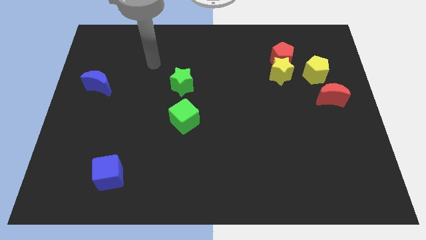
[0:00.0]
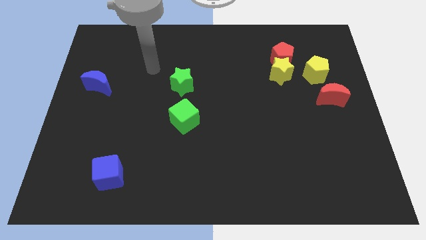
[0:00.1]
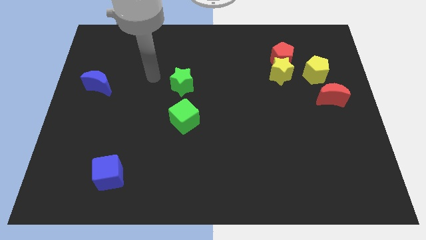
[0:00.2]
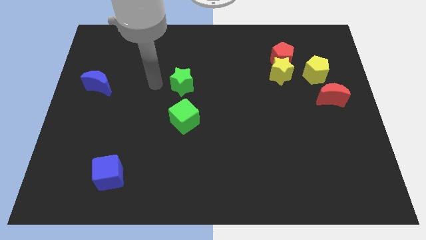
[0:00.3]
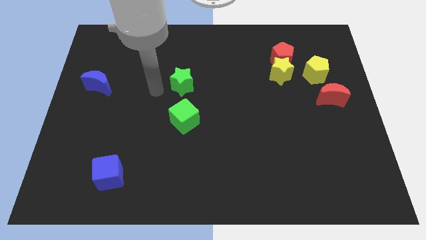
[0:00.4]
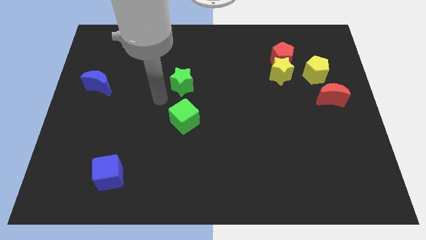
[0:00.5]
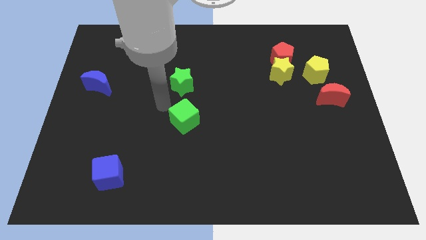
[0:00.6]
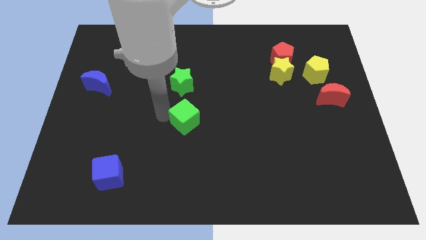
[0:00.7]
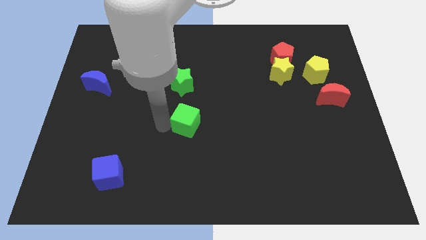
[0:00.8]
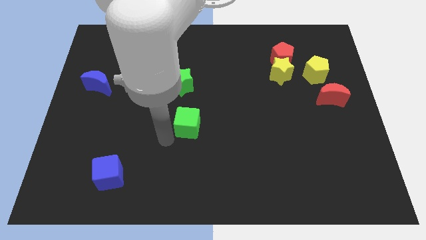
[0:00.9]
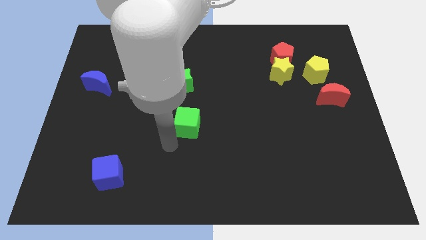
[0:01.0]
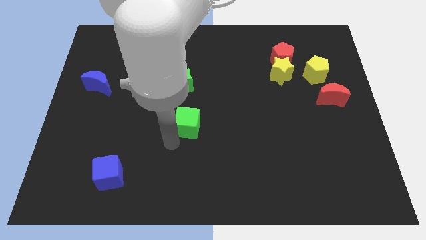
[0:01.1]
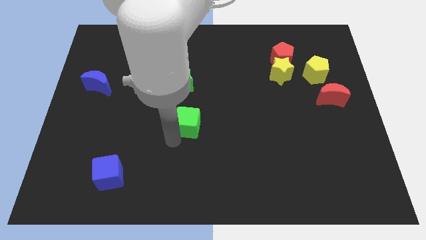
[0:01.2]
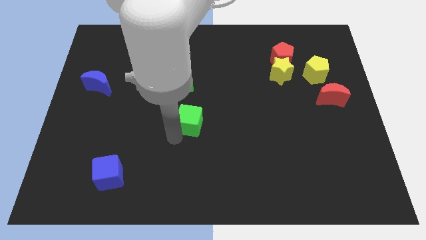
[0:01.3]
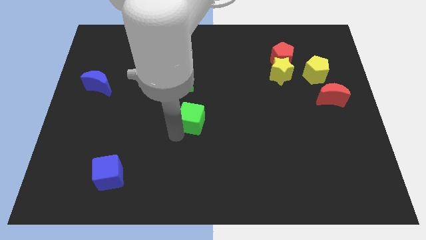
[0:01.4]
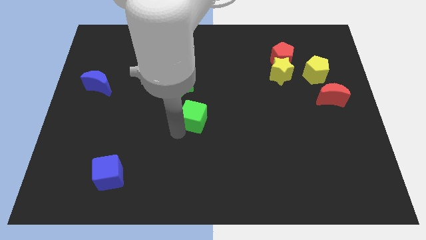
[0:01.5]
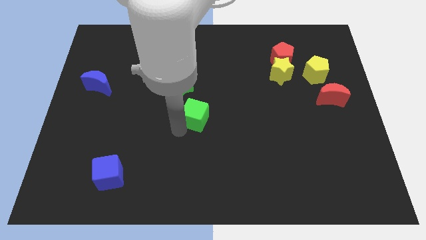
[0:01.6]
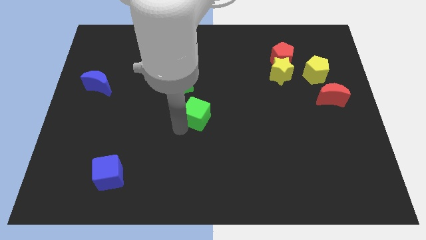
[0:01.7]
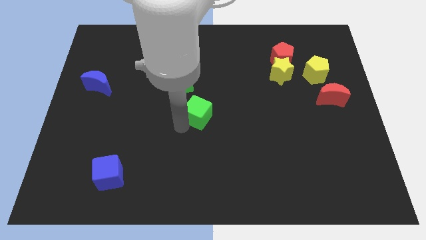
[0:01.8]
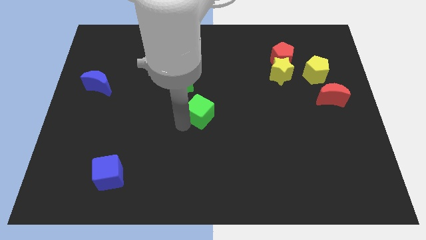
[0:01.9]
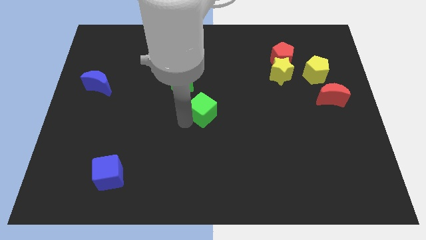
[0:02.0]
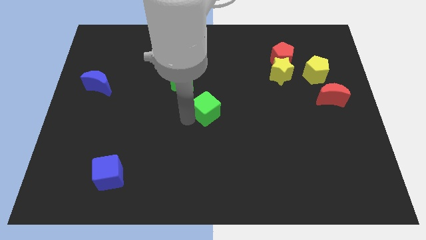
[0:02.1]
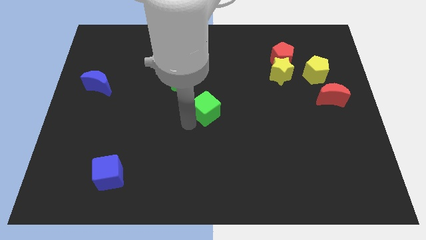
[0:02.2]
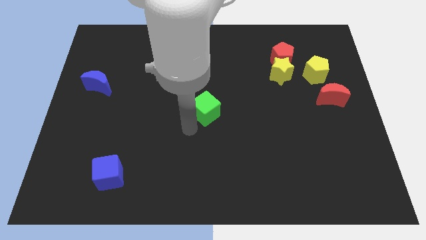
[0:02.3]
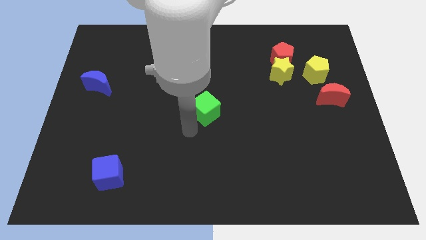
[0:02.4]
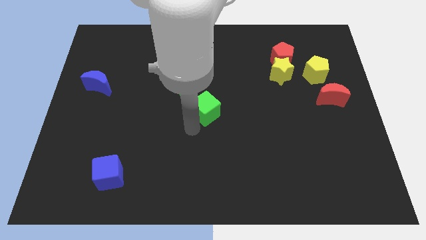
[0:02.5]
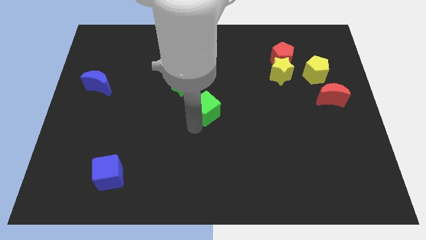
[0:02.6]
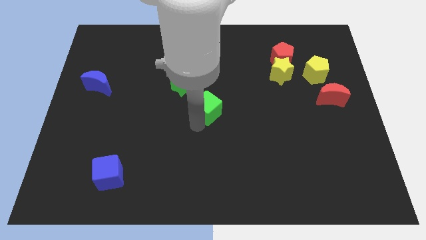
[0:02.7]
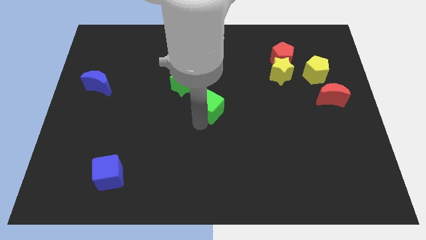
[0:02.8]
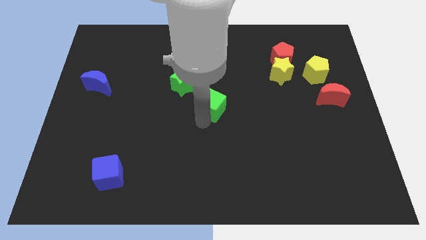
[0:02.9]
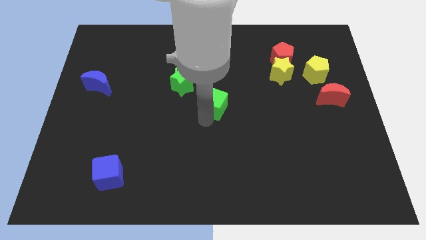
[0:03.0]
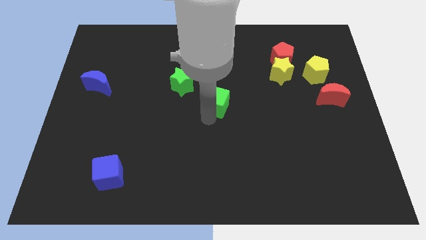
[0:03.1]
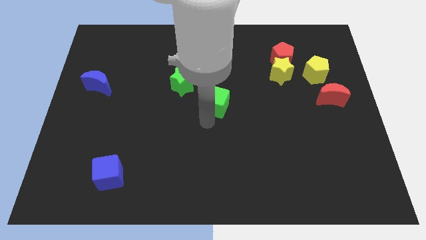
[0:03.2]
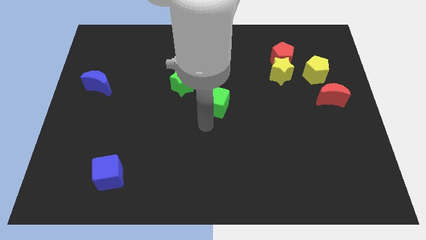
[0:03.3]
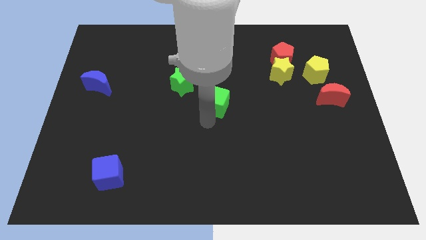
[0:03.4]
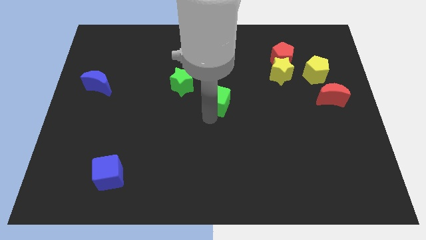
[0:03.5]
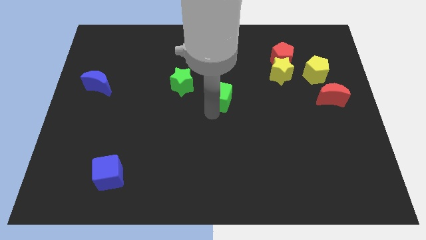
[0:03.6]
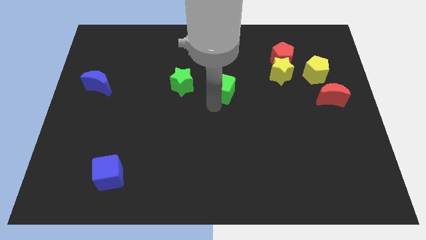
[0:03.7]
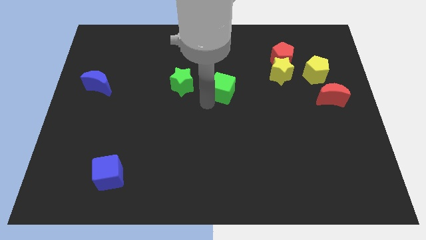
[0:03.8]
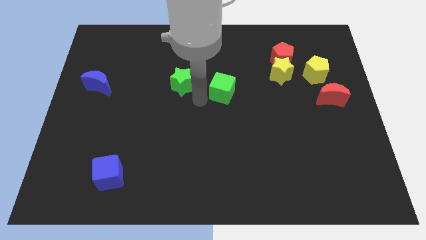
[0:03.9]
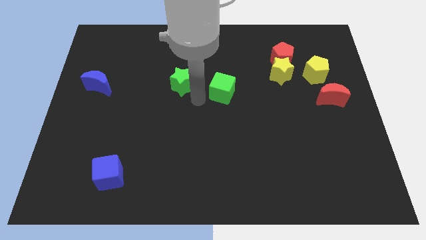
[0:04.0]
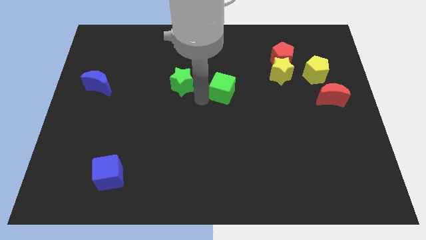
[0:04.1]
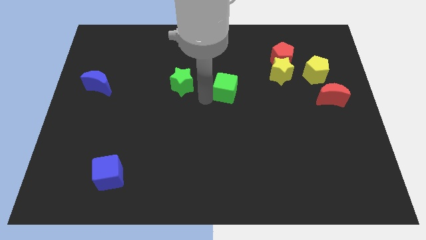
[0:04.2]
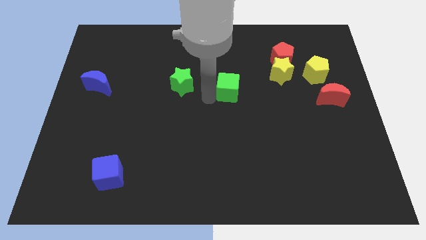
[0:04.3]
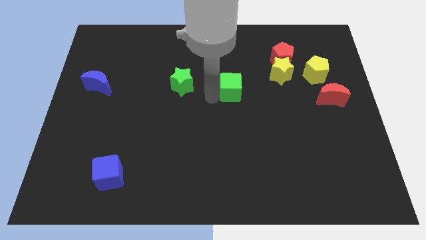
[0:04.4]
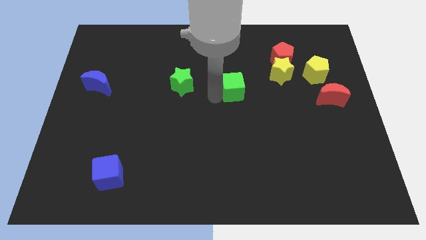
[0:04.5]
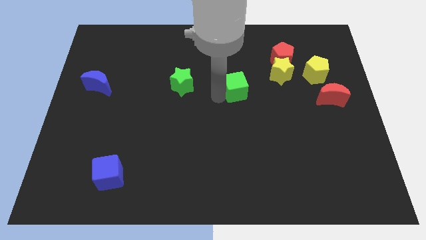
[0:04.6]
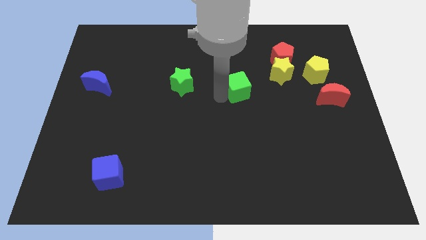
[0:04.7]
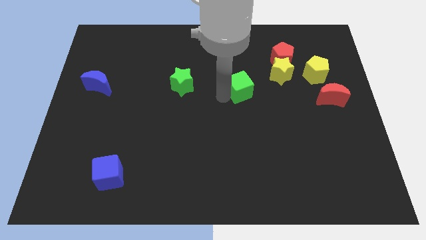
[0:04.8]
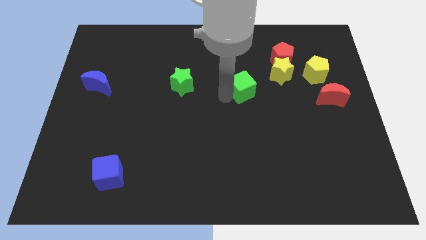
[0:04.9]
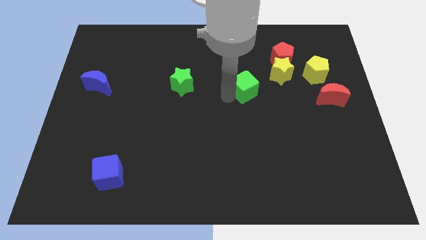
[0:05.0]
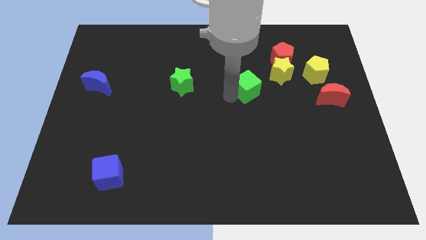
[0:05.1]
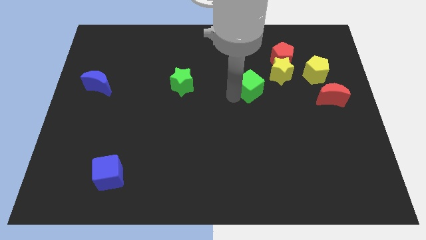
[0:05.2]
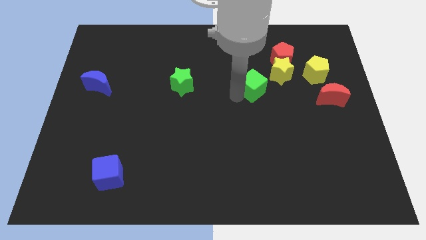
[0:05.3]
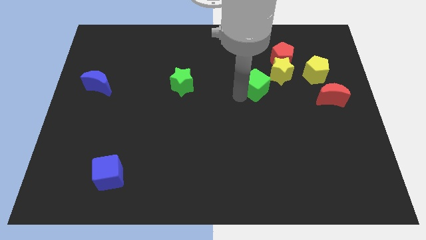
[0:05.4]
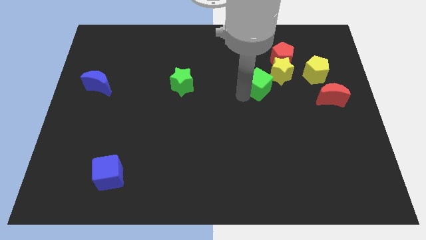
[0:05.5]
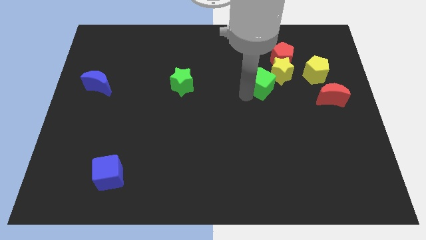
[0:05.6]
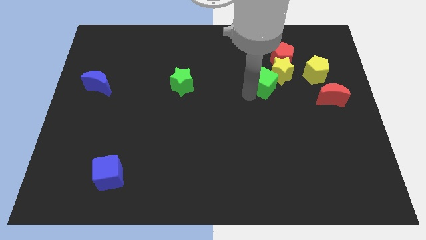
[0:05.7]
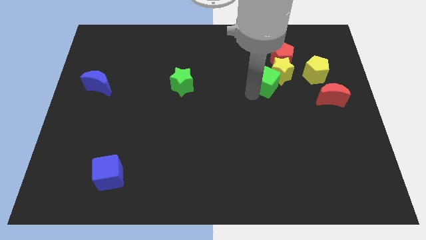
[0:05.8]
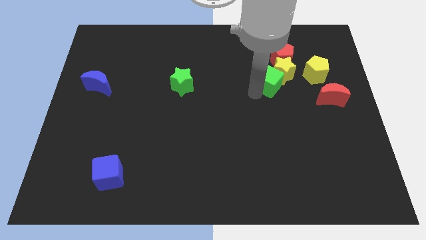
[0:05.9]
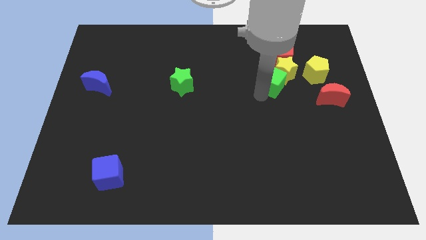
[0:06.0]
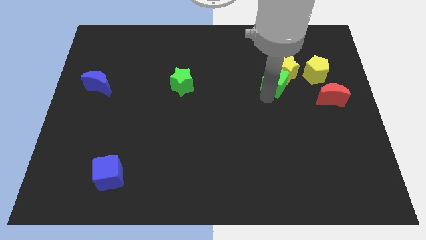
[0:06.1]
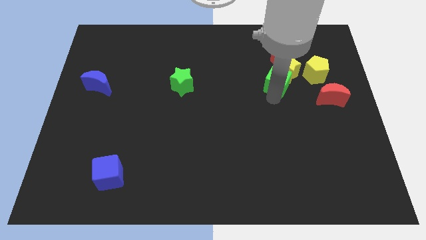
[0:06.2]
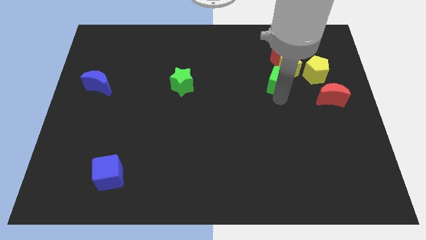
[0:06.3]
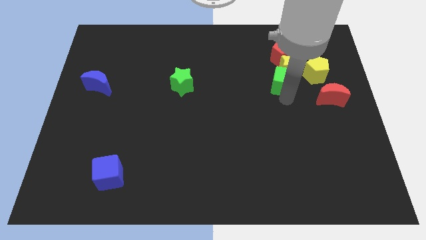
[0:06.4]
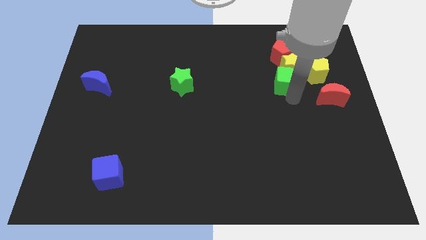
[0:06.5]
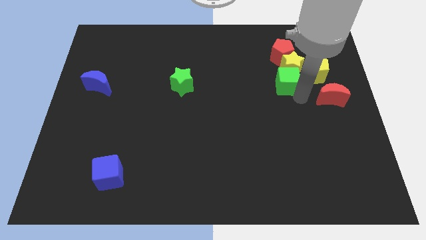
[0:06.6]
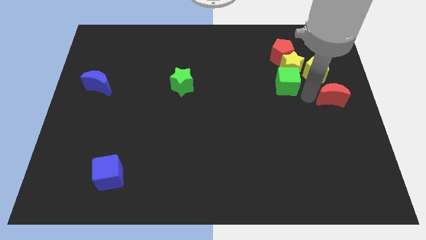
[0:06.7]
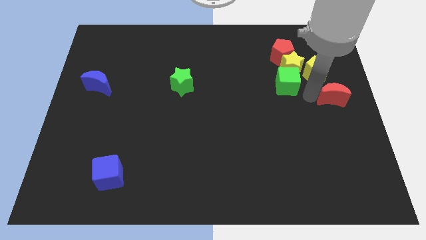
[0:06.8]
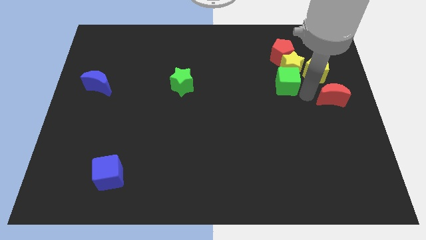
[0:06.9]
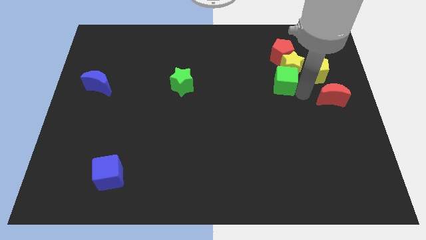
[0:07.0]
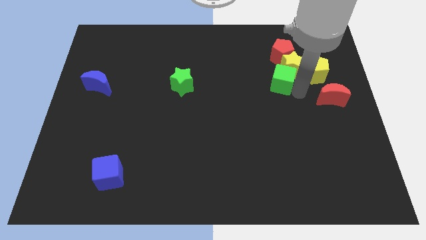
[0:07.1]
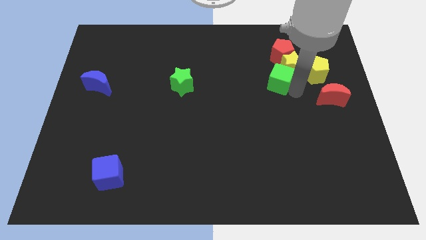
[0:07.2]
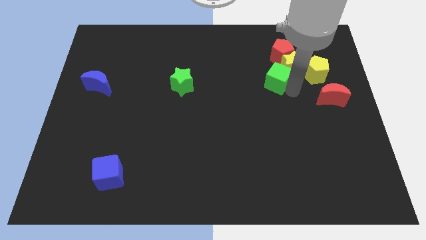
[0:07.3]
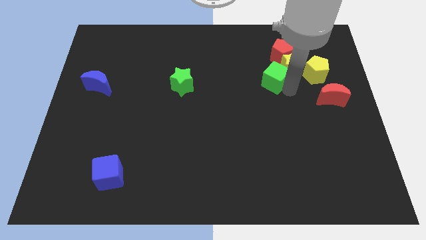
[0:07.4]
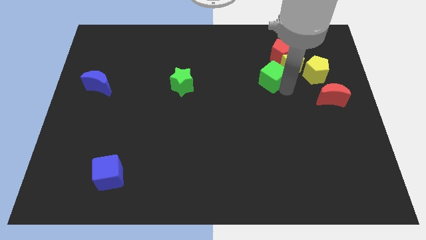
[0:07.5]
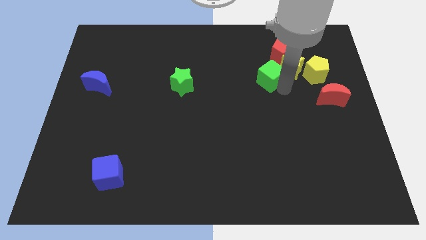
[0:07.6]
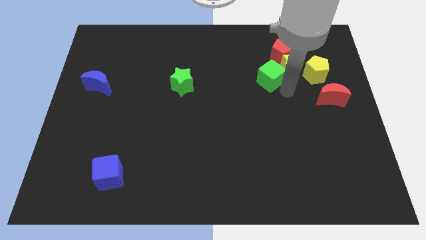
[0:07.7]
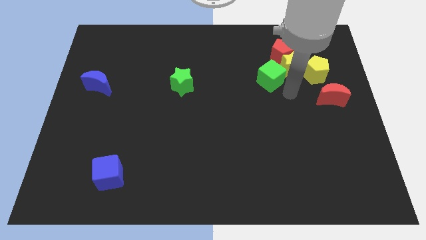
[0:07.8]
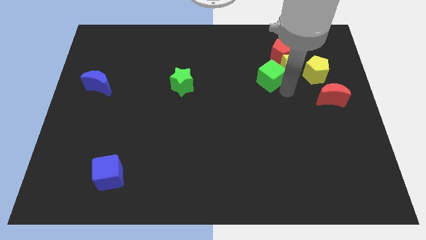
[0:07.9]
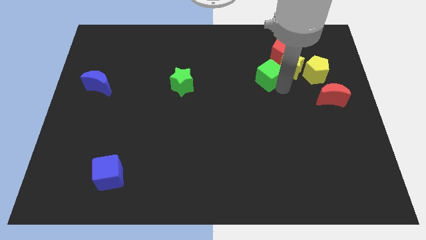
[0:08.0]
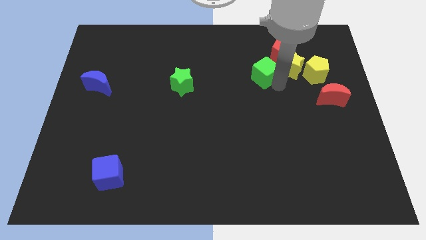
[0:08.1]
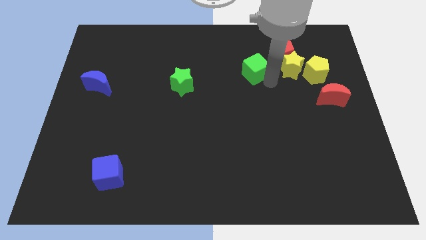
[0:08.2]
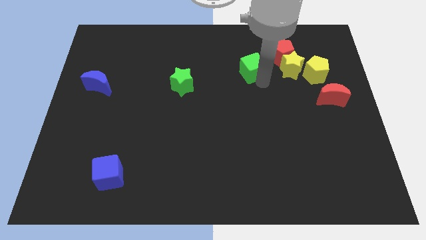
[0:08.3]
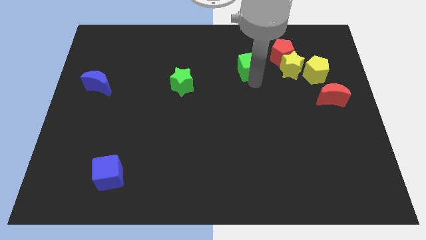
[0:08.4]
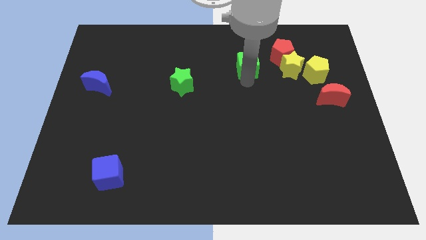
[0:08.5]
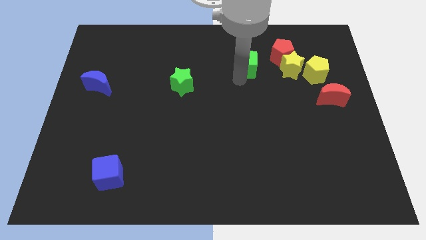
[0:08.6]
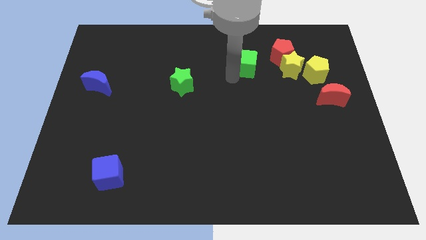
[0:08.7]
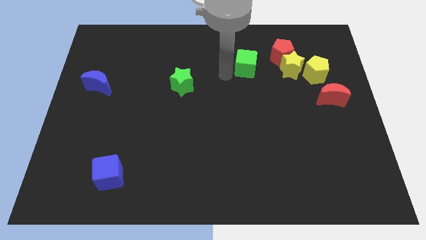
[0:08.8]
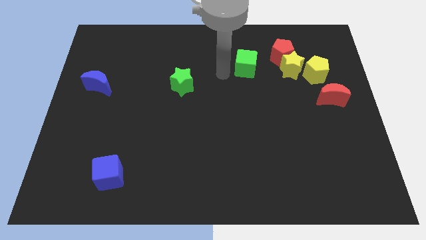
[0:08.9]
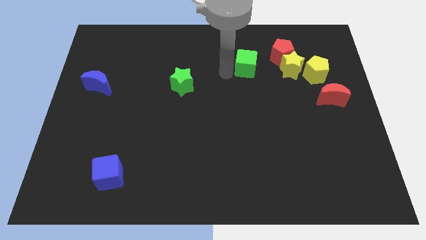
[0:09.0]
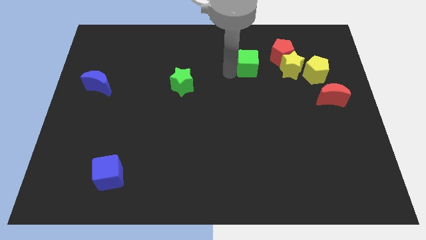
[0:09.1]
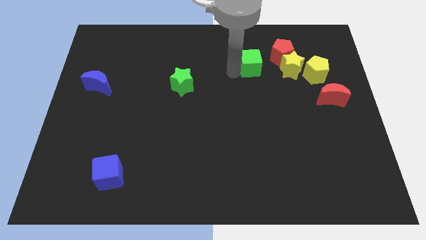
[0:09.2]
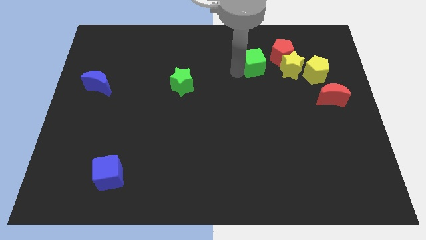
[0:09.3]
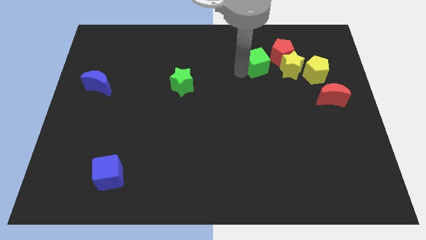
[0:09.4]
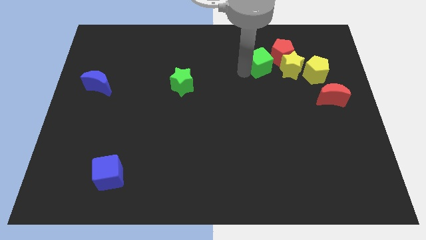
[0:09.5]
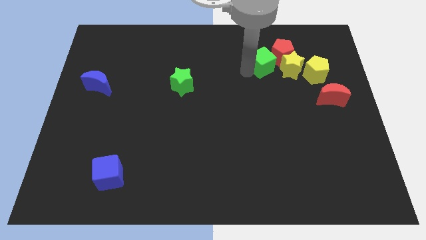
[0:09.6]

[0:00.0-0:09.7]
put the green cube to the red pentagon
